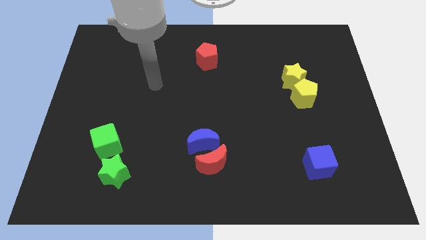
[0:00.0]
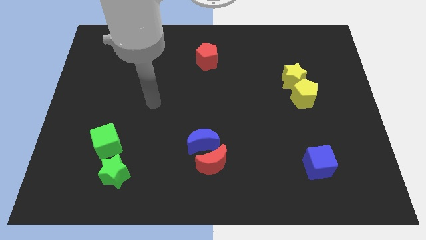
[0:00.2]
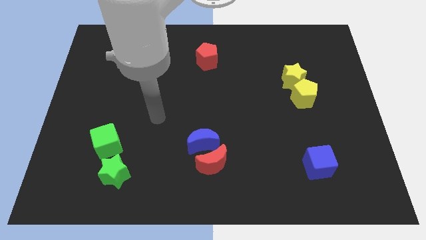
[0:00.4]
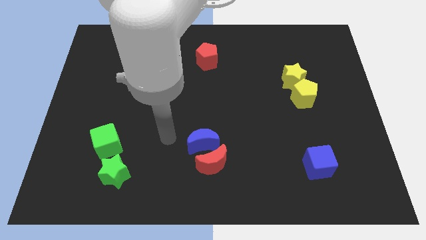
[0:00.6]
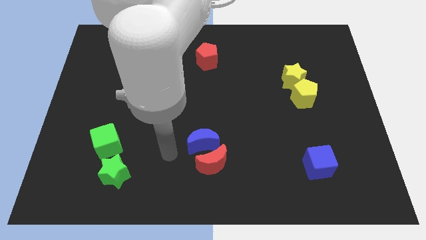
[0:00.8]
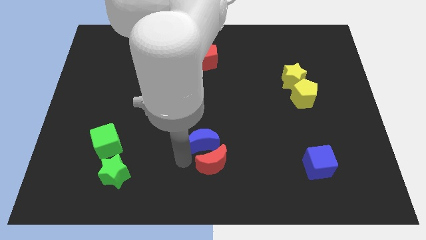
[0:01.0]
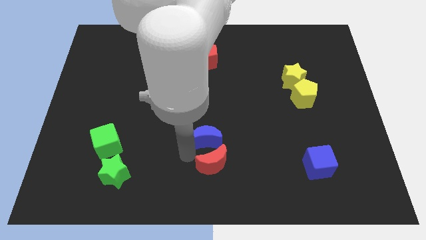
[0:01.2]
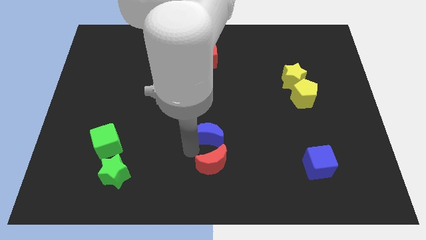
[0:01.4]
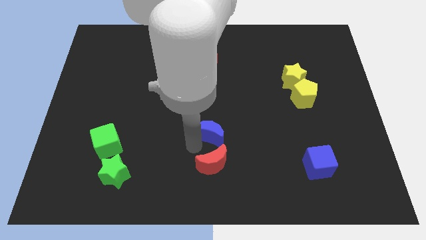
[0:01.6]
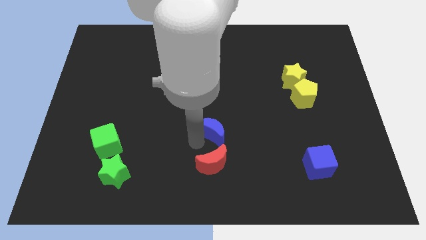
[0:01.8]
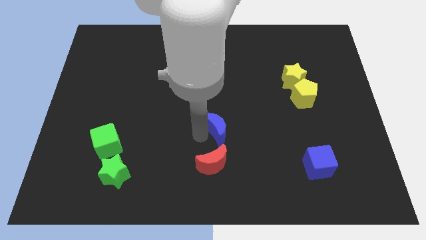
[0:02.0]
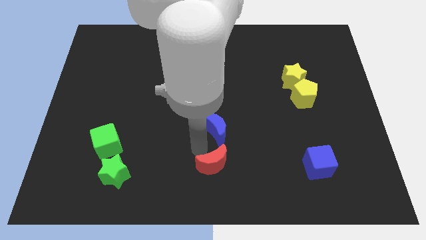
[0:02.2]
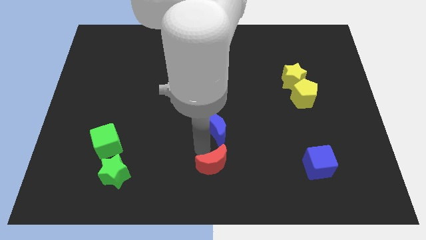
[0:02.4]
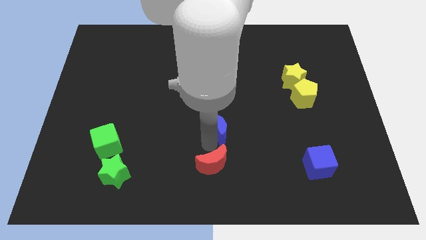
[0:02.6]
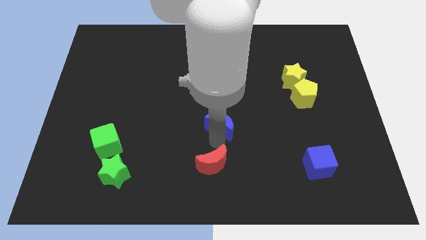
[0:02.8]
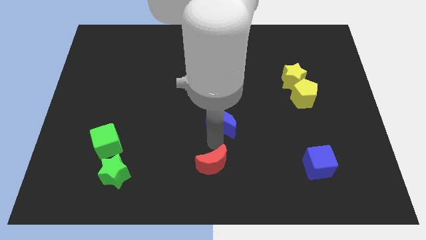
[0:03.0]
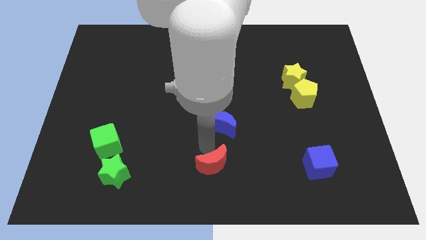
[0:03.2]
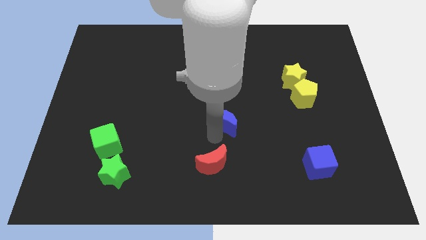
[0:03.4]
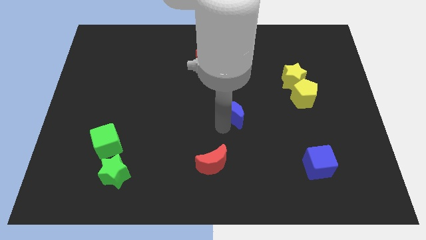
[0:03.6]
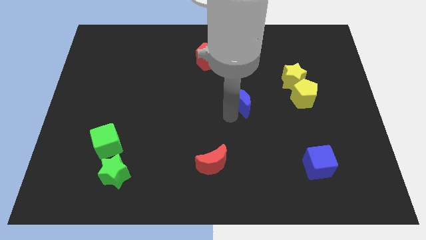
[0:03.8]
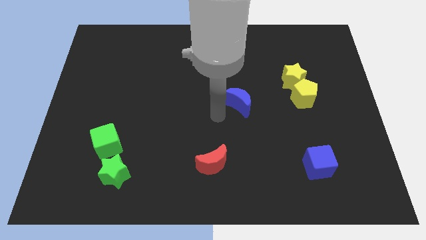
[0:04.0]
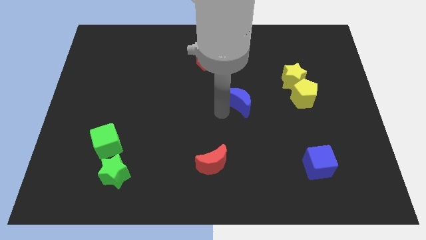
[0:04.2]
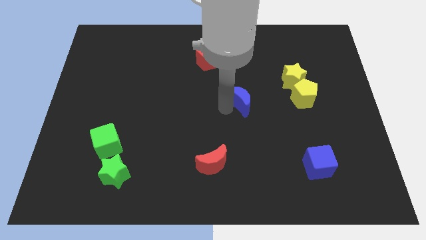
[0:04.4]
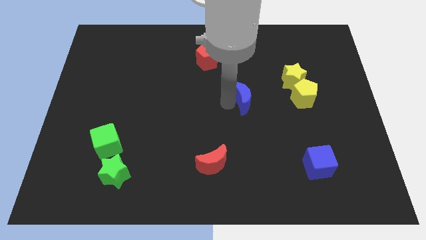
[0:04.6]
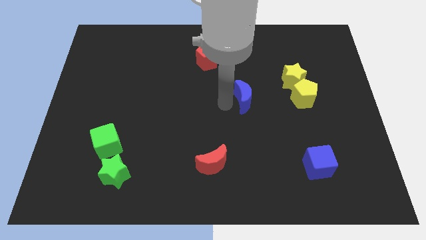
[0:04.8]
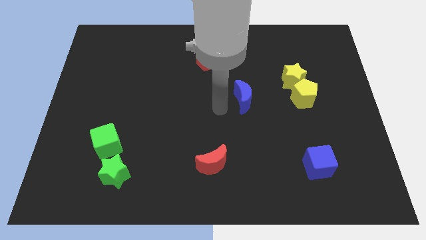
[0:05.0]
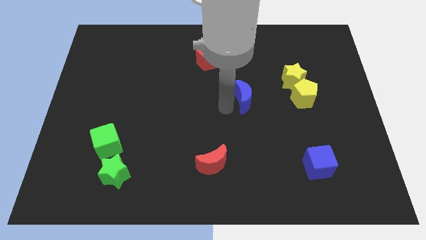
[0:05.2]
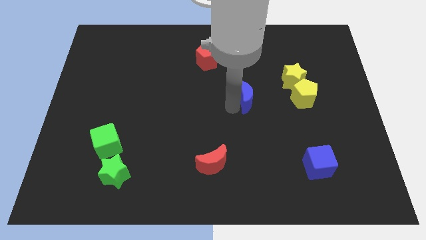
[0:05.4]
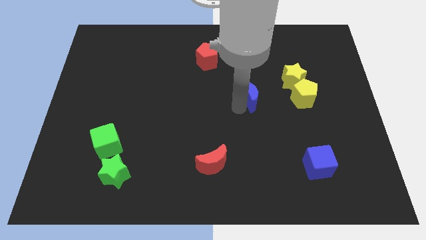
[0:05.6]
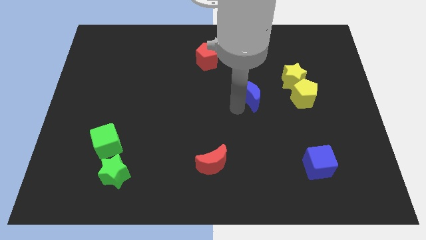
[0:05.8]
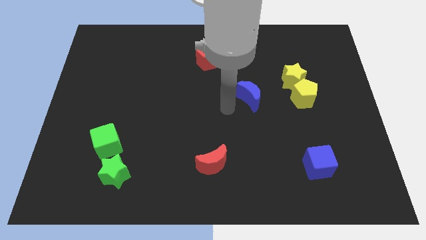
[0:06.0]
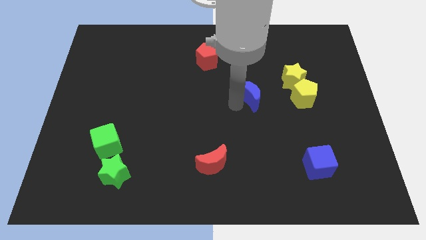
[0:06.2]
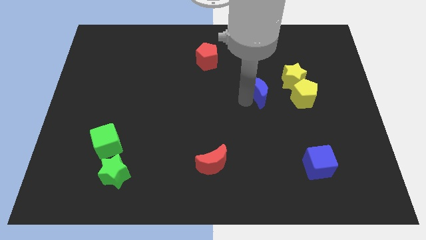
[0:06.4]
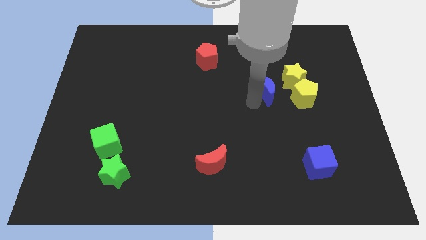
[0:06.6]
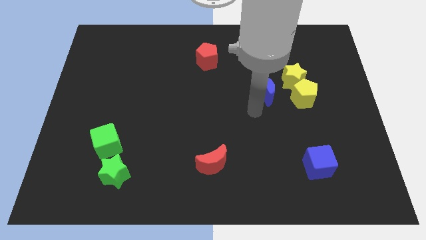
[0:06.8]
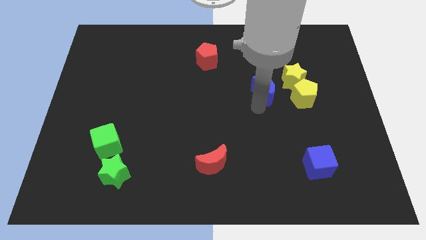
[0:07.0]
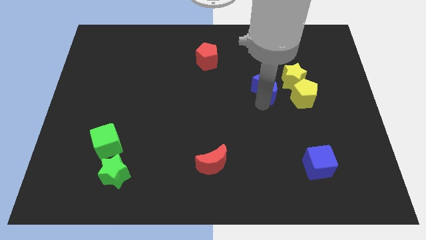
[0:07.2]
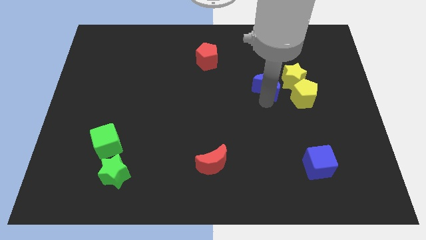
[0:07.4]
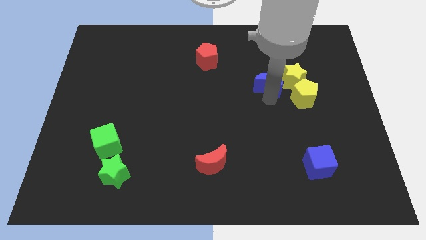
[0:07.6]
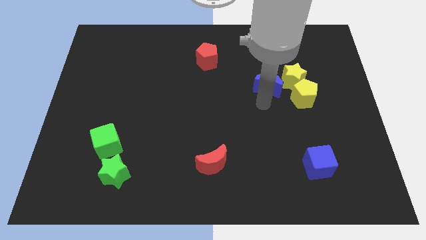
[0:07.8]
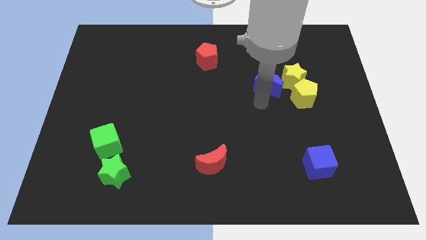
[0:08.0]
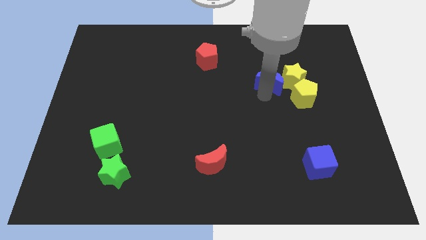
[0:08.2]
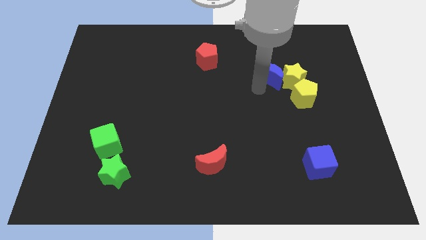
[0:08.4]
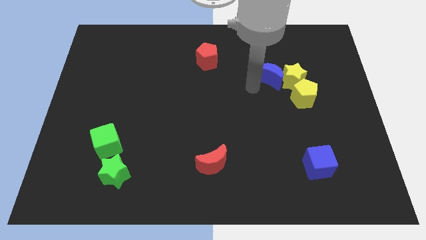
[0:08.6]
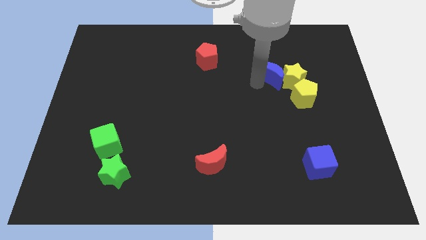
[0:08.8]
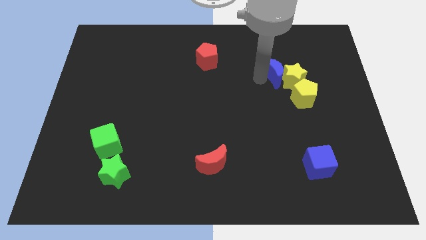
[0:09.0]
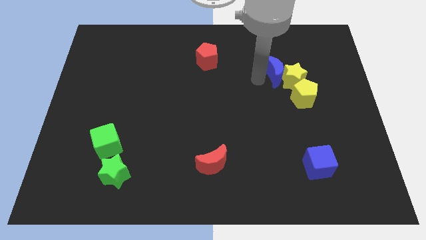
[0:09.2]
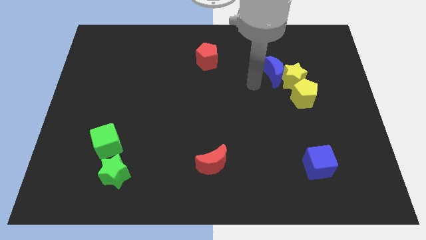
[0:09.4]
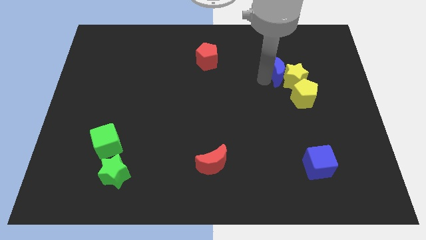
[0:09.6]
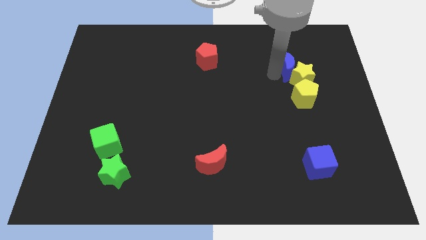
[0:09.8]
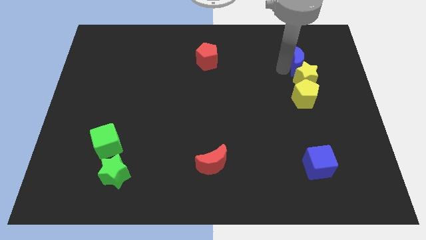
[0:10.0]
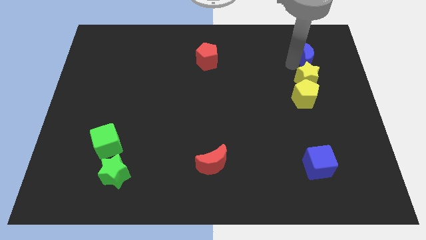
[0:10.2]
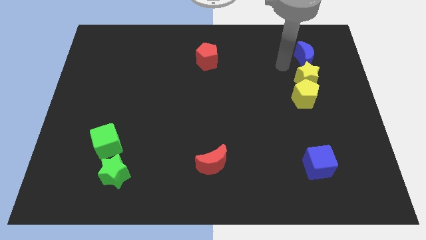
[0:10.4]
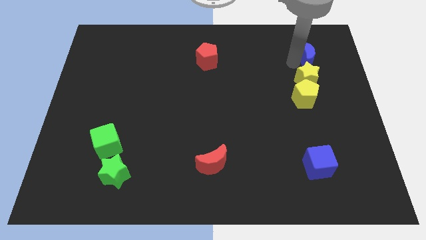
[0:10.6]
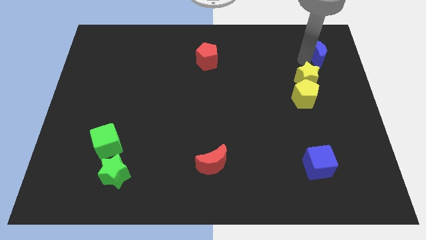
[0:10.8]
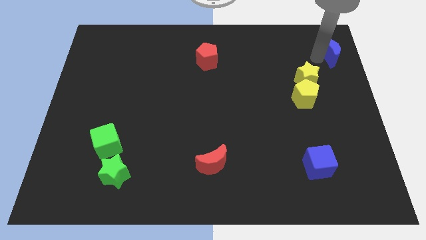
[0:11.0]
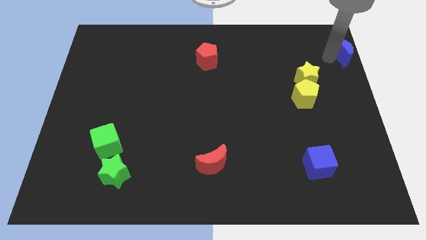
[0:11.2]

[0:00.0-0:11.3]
slide the blue moon to the upper right corner

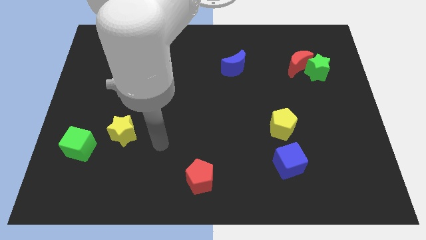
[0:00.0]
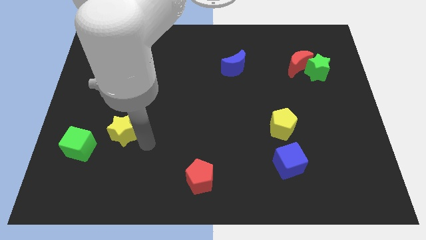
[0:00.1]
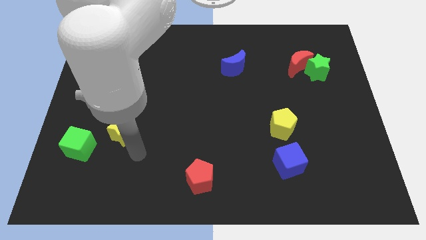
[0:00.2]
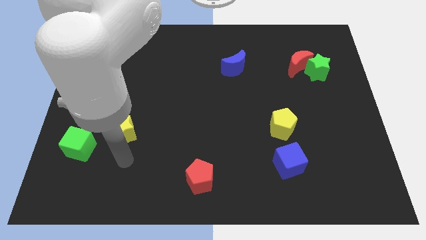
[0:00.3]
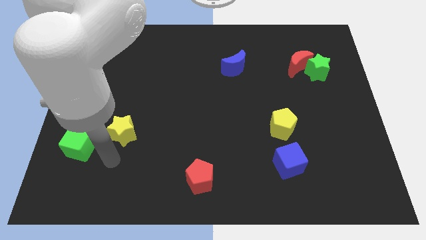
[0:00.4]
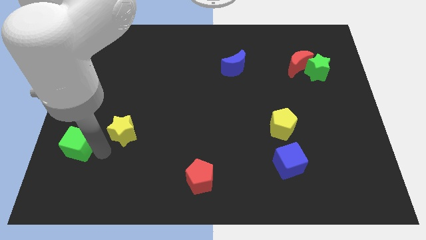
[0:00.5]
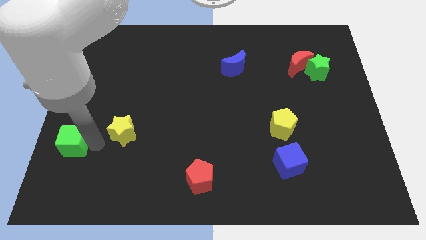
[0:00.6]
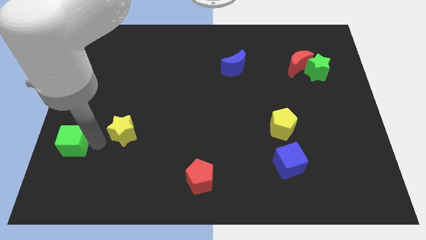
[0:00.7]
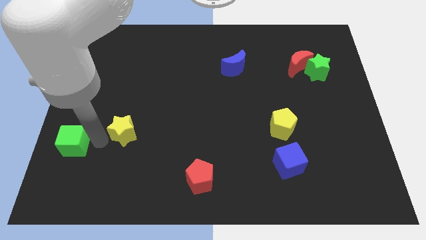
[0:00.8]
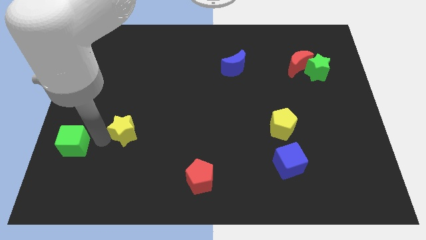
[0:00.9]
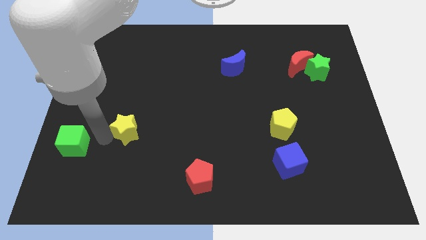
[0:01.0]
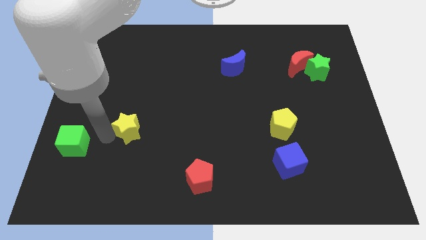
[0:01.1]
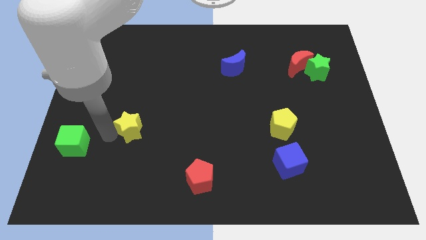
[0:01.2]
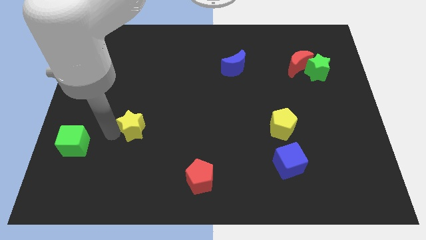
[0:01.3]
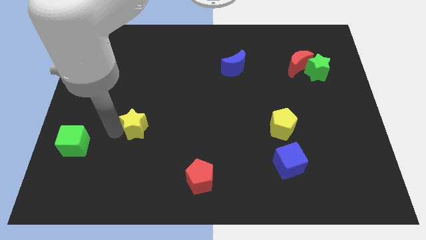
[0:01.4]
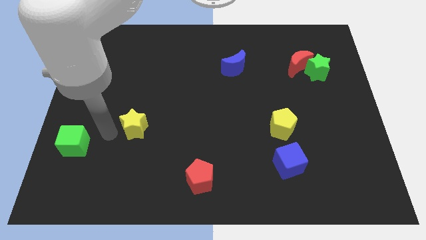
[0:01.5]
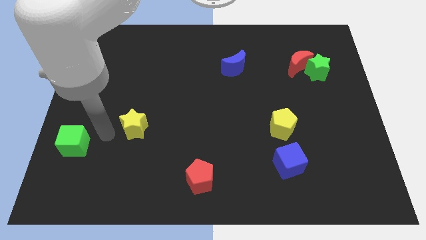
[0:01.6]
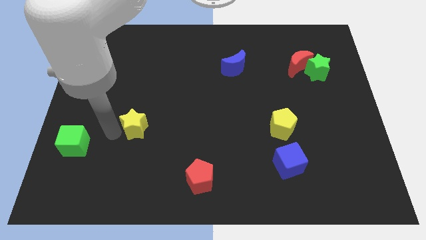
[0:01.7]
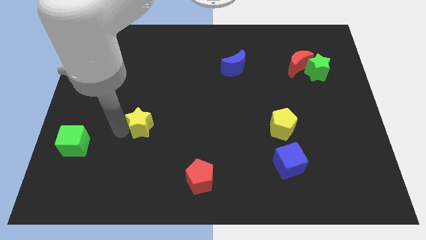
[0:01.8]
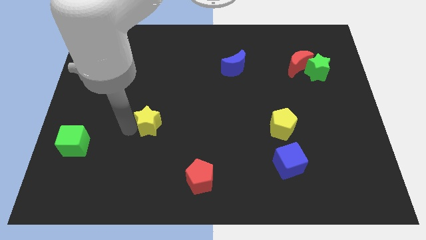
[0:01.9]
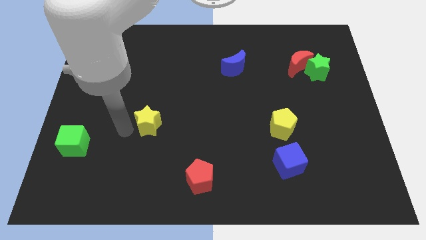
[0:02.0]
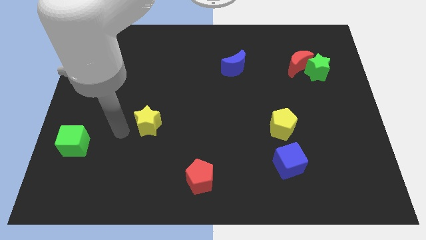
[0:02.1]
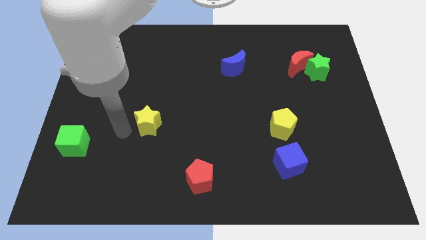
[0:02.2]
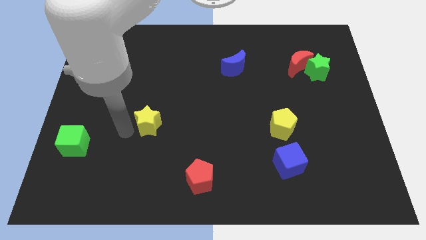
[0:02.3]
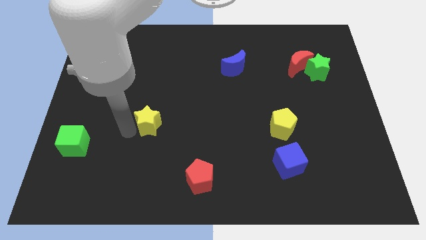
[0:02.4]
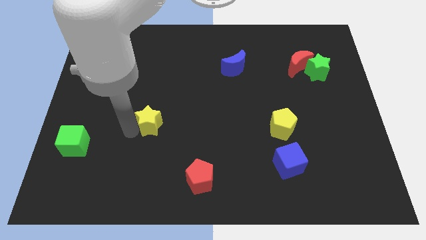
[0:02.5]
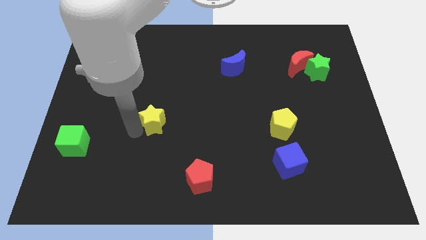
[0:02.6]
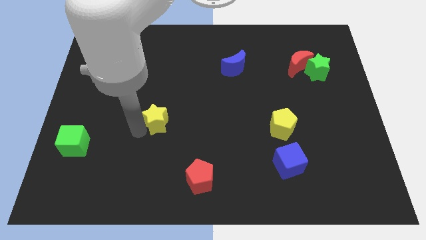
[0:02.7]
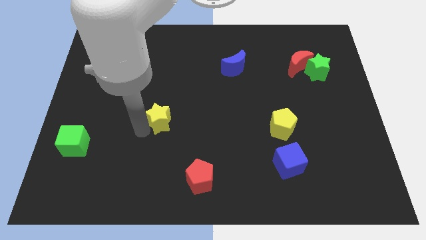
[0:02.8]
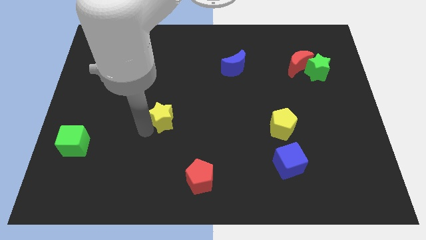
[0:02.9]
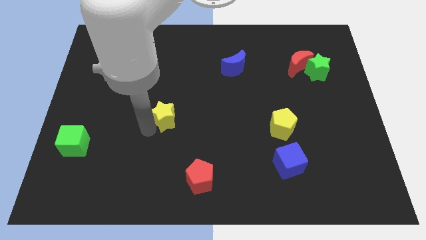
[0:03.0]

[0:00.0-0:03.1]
put the yellow star to the center of the board
